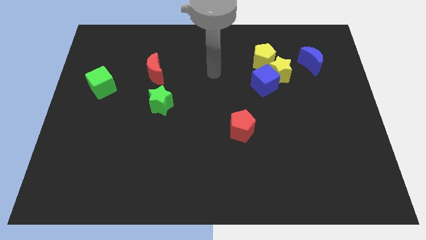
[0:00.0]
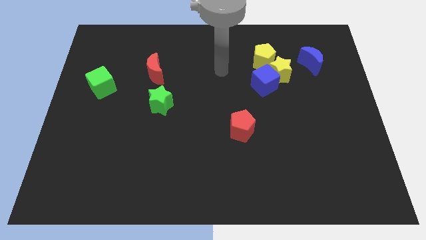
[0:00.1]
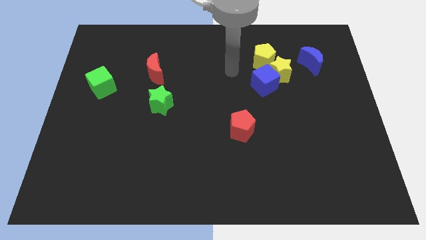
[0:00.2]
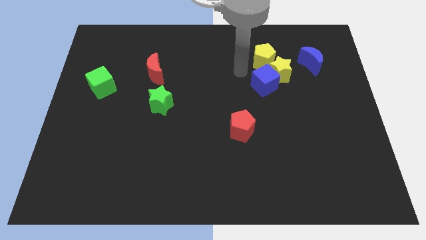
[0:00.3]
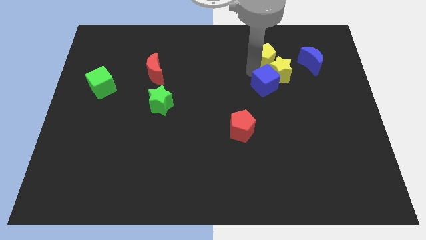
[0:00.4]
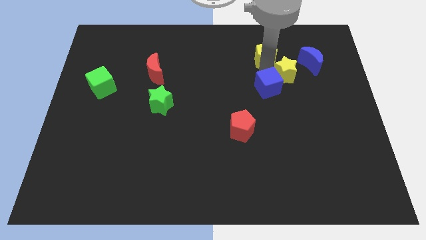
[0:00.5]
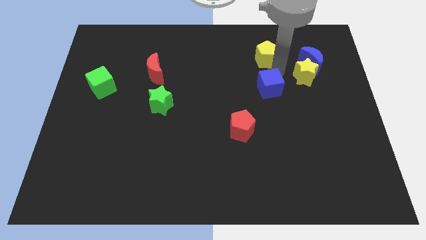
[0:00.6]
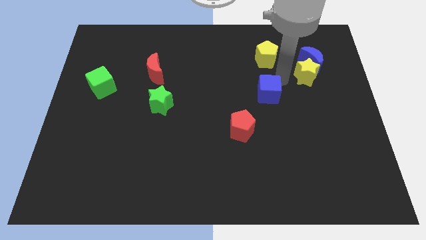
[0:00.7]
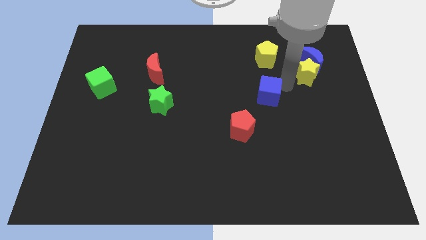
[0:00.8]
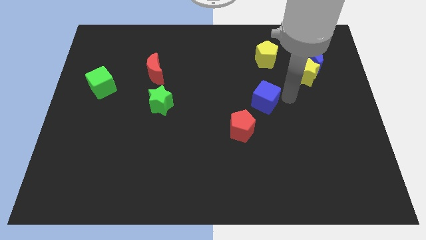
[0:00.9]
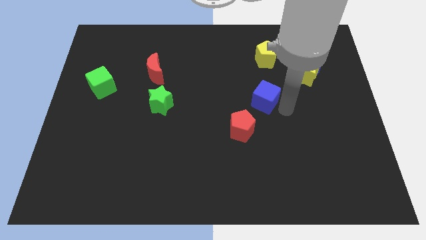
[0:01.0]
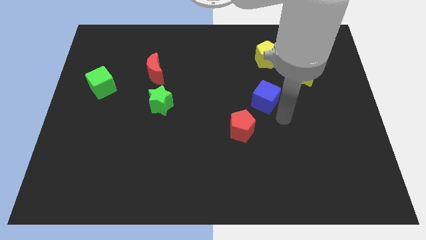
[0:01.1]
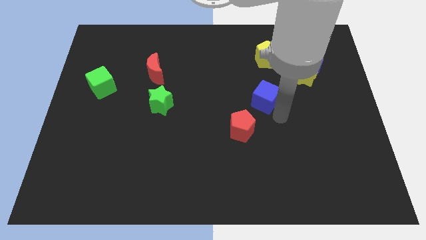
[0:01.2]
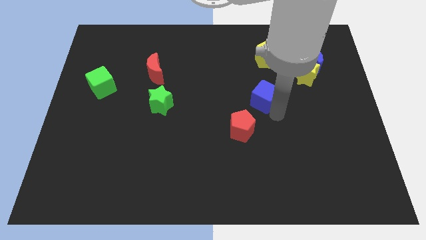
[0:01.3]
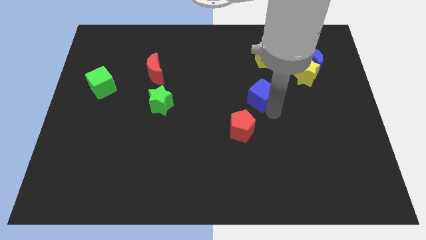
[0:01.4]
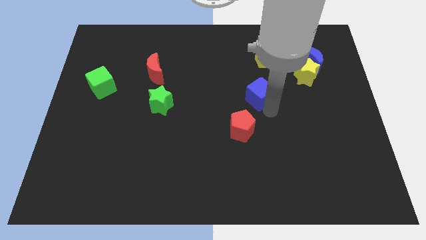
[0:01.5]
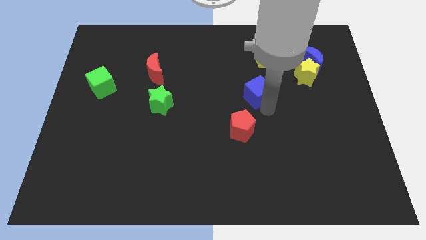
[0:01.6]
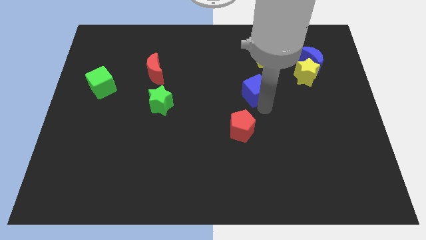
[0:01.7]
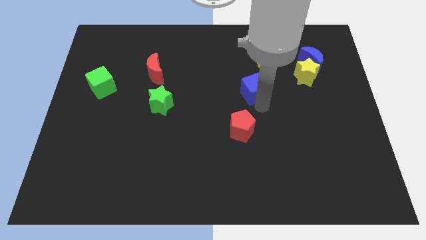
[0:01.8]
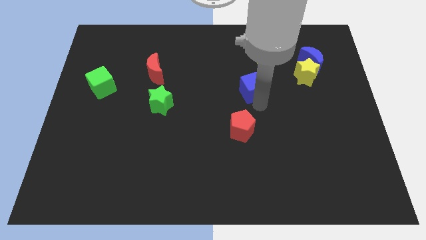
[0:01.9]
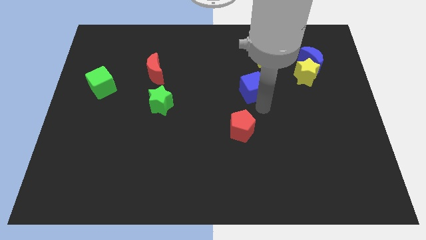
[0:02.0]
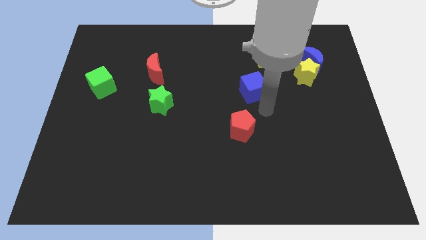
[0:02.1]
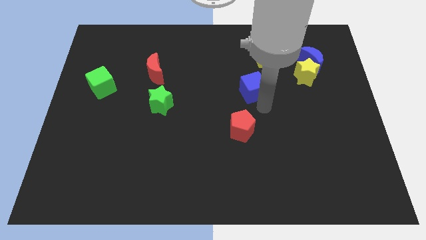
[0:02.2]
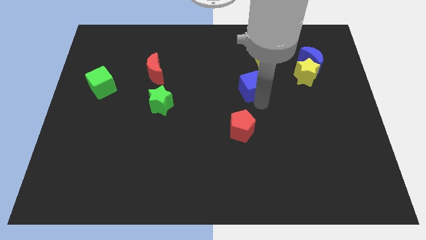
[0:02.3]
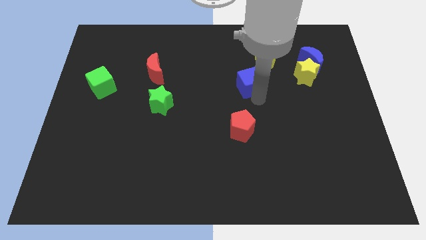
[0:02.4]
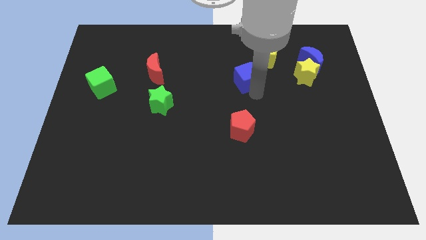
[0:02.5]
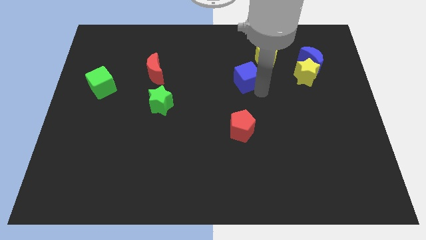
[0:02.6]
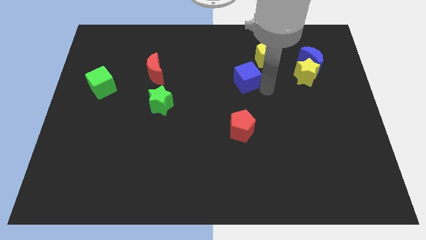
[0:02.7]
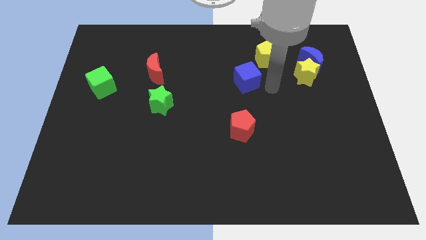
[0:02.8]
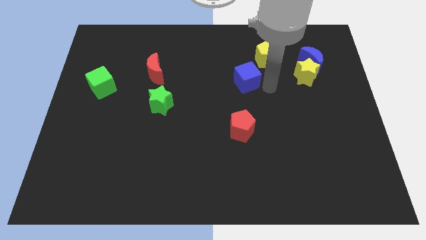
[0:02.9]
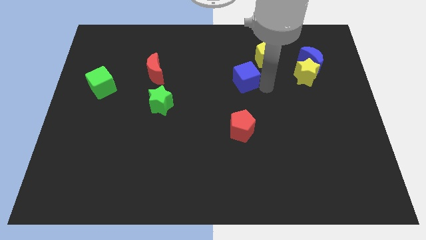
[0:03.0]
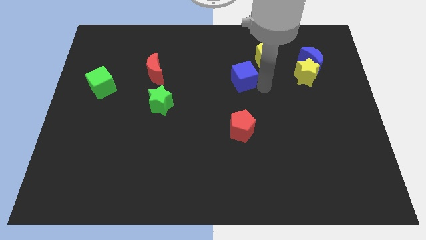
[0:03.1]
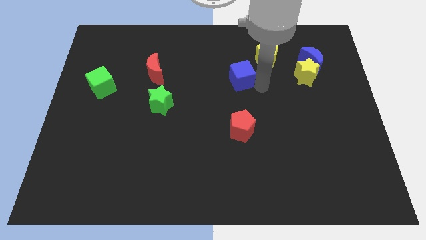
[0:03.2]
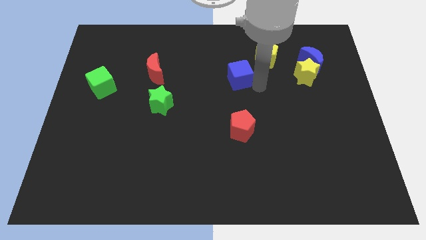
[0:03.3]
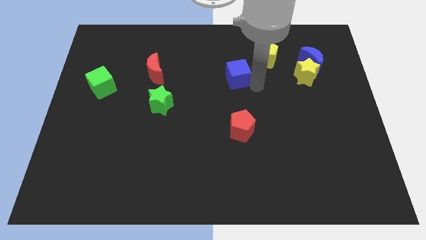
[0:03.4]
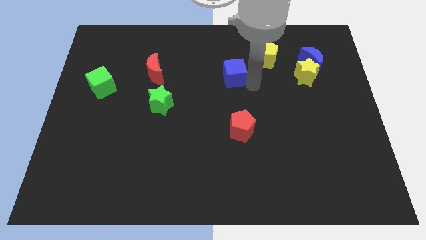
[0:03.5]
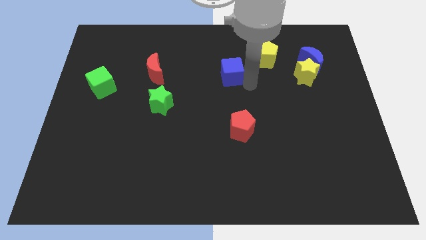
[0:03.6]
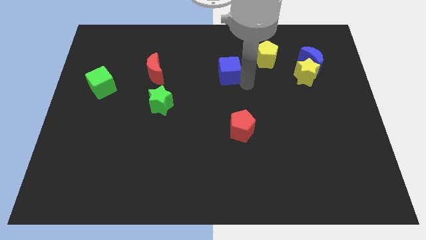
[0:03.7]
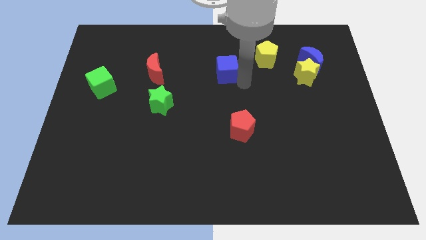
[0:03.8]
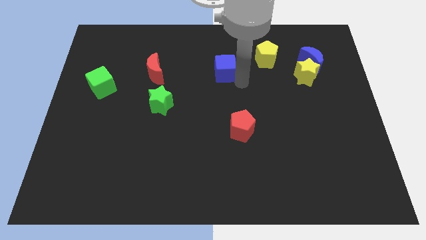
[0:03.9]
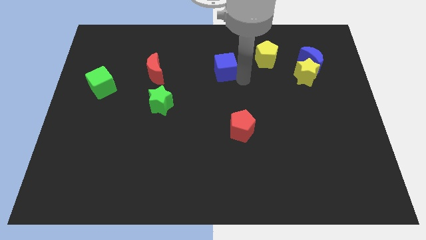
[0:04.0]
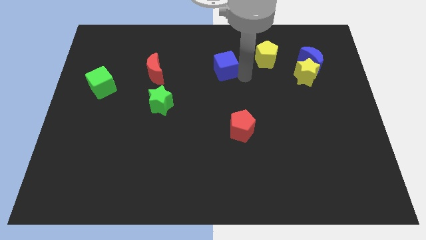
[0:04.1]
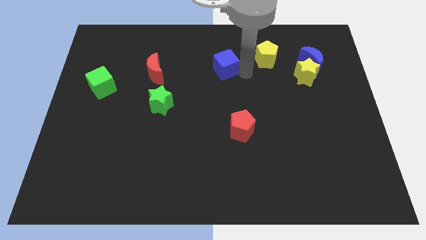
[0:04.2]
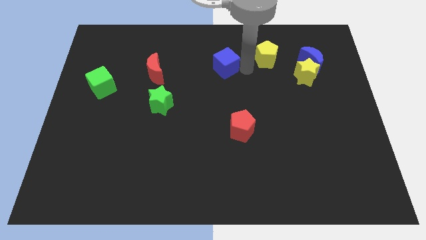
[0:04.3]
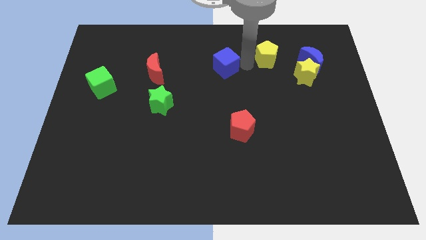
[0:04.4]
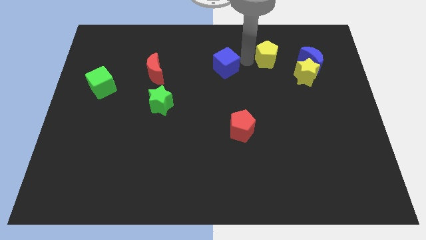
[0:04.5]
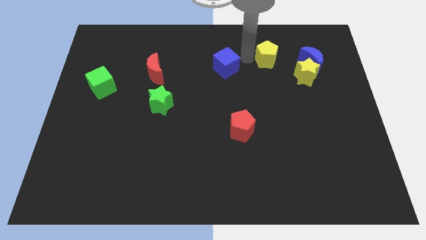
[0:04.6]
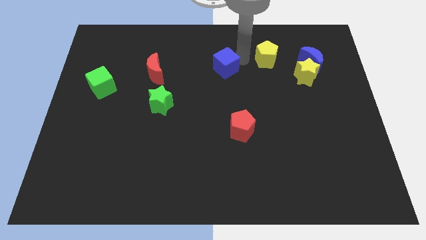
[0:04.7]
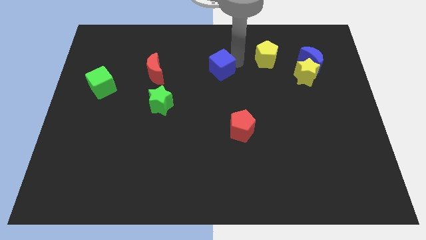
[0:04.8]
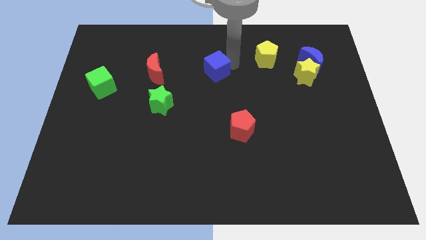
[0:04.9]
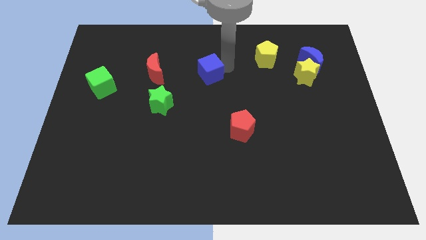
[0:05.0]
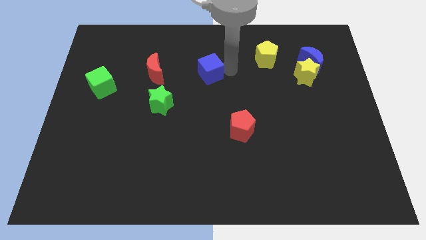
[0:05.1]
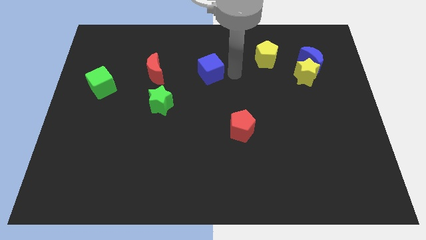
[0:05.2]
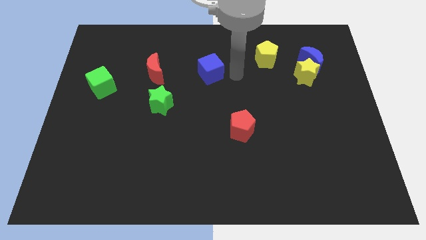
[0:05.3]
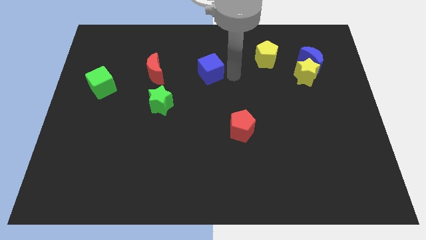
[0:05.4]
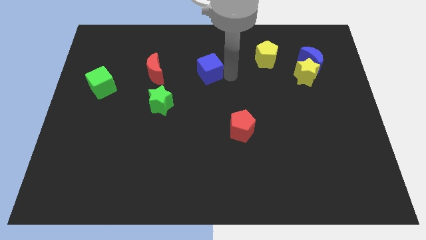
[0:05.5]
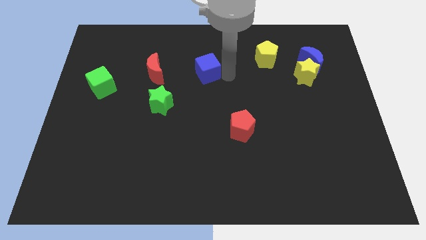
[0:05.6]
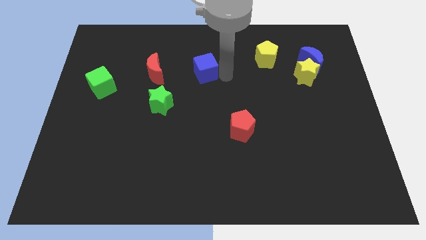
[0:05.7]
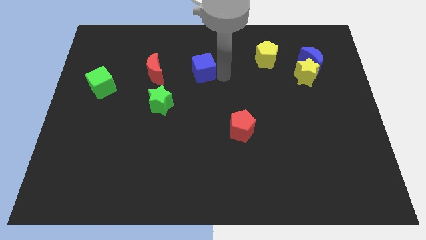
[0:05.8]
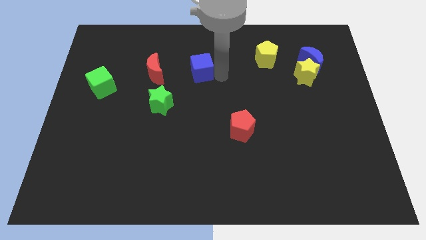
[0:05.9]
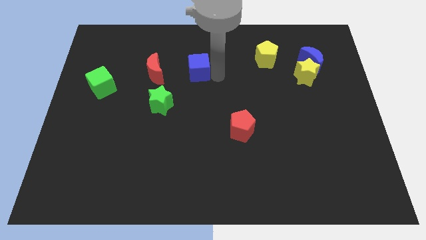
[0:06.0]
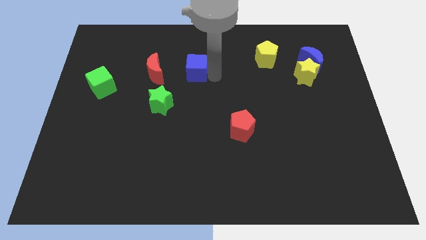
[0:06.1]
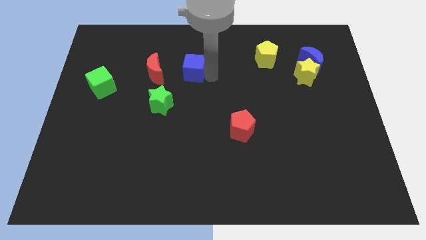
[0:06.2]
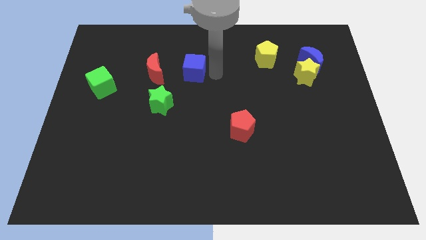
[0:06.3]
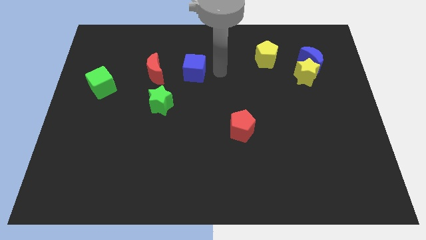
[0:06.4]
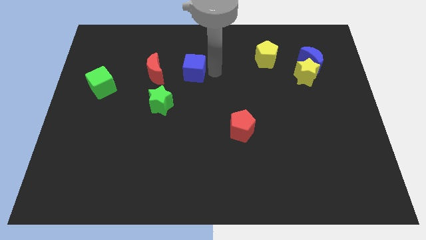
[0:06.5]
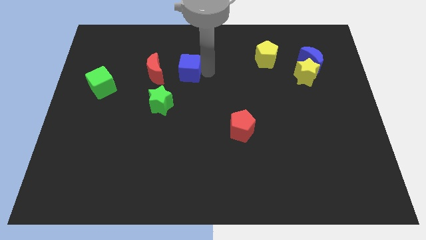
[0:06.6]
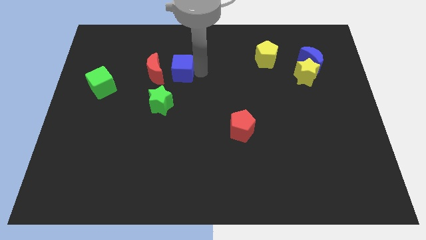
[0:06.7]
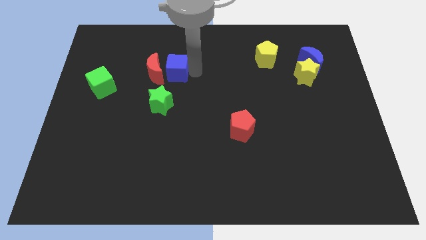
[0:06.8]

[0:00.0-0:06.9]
put the blue cube next to the red moon
